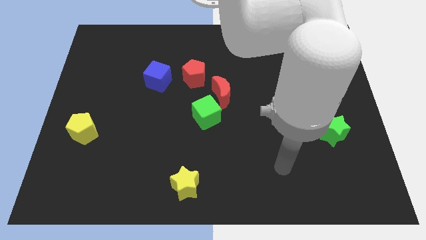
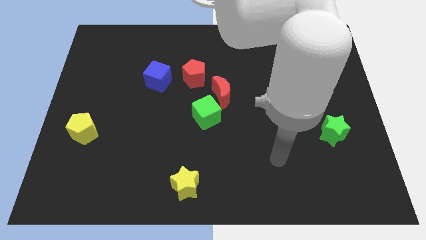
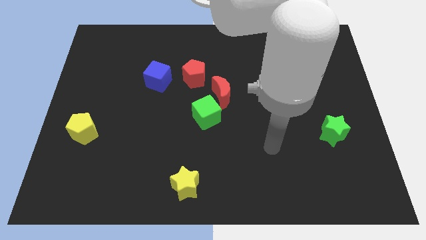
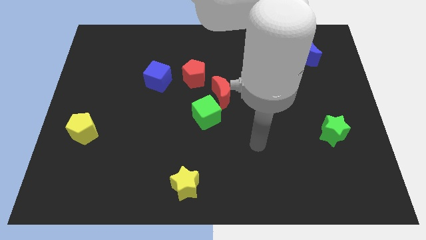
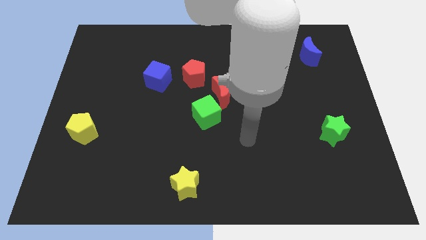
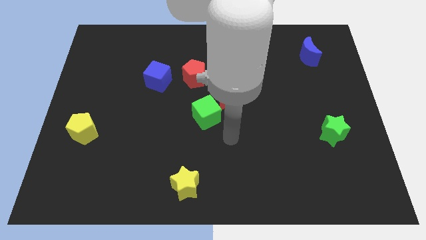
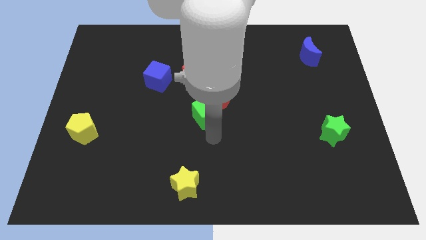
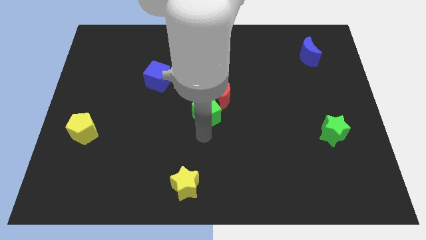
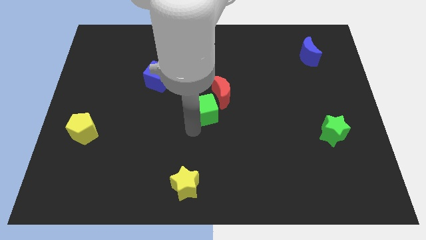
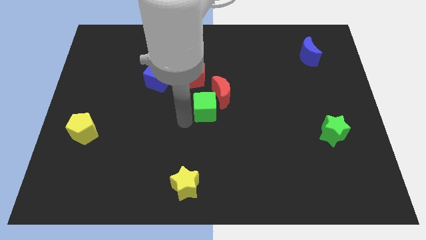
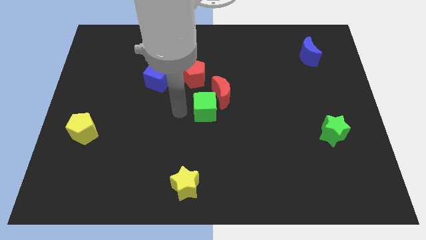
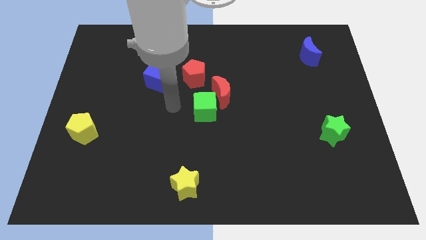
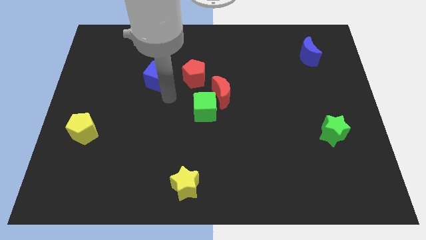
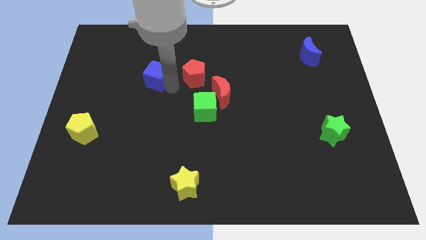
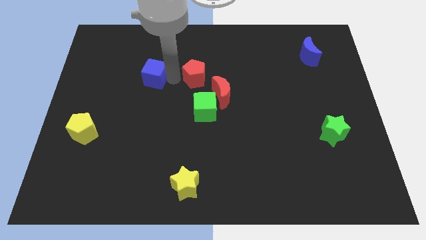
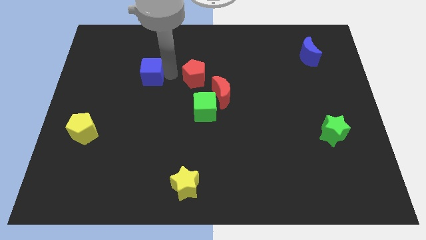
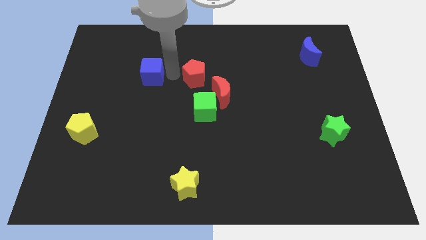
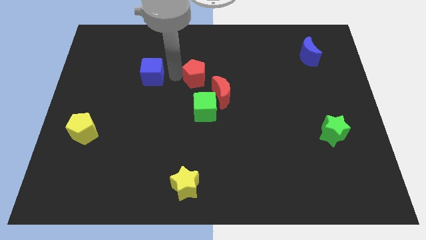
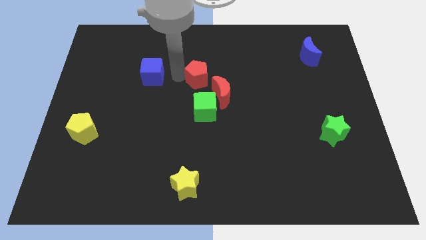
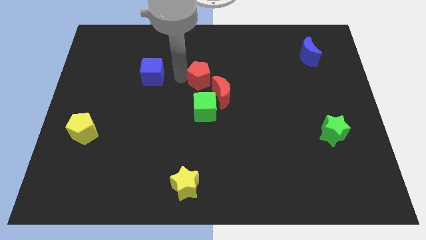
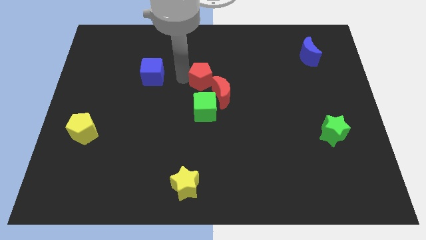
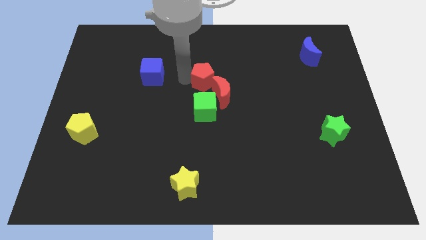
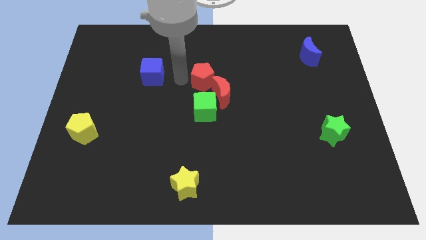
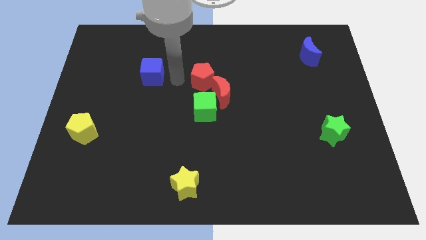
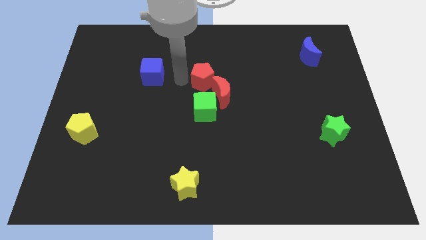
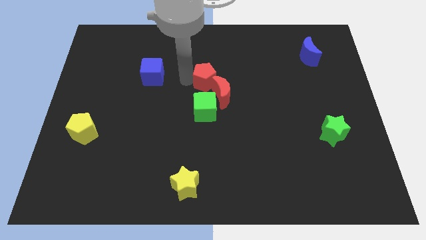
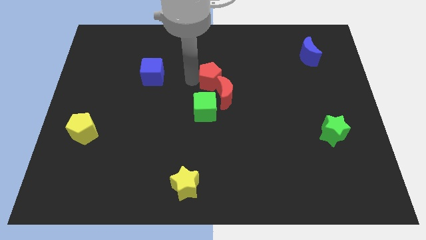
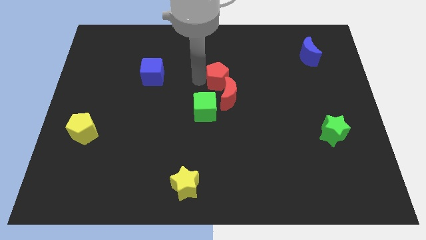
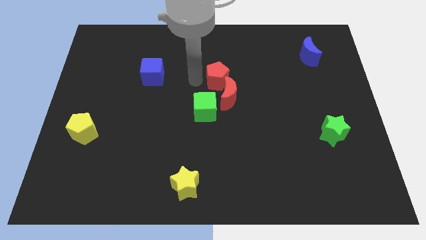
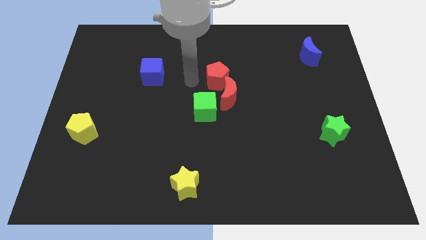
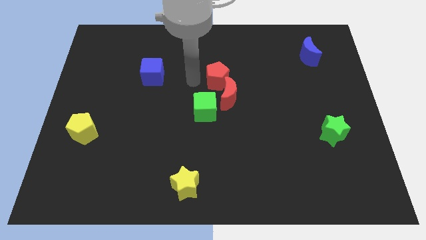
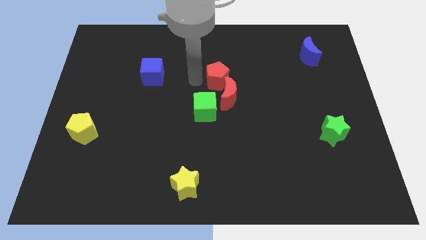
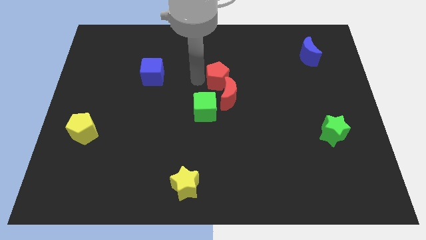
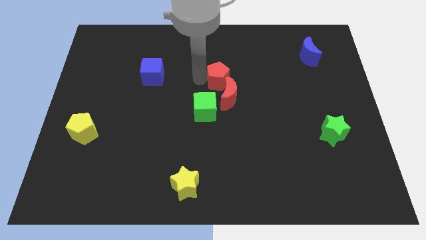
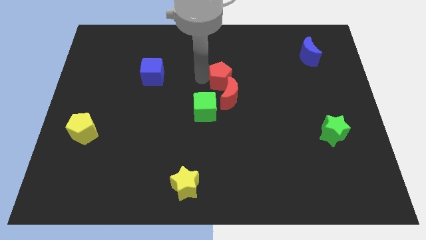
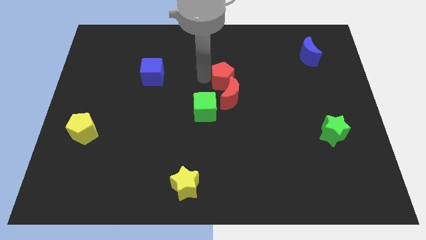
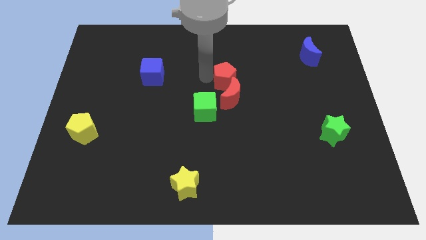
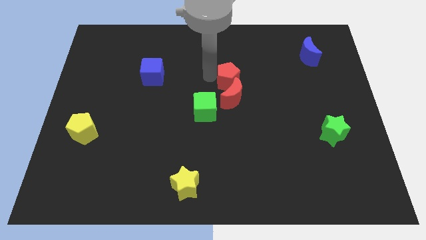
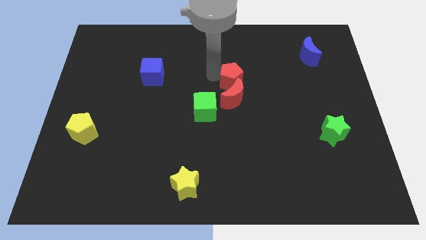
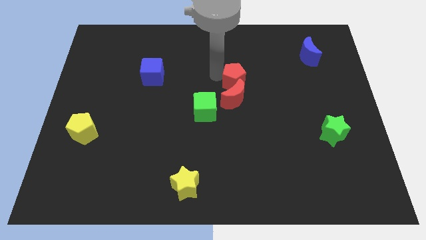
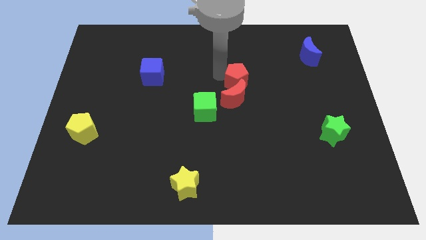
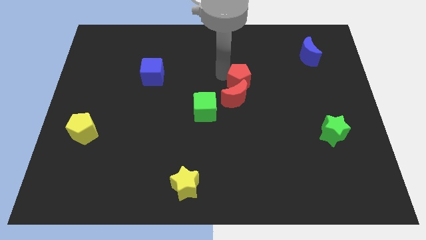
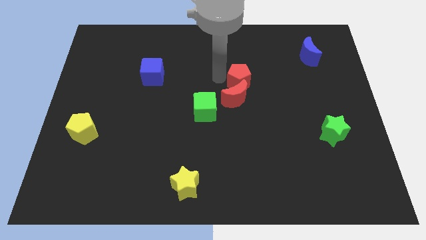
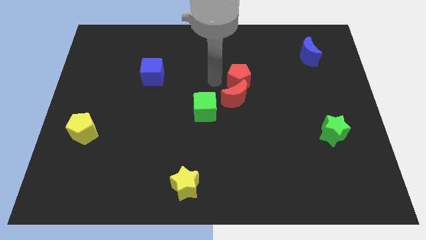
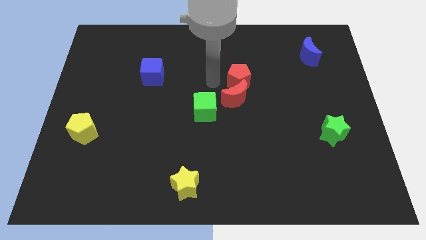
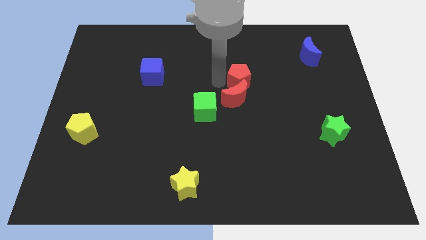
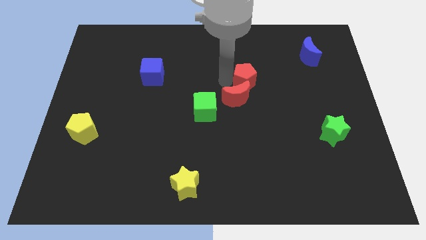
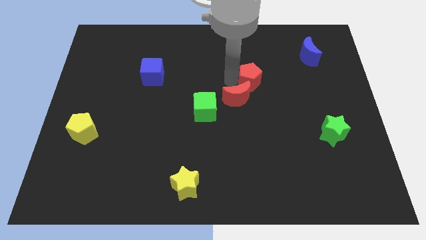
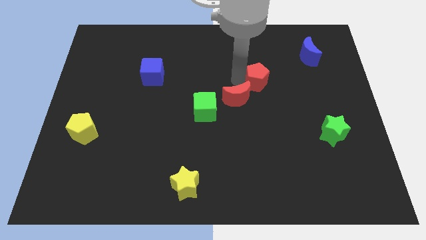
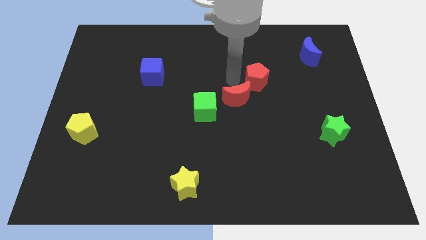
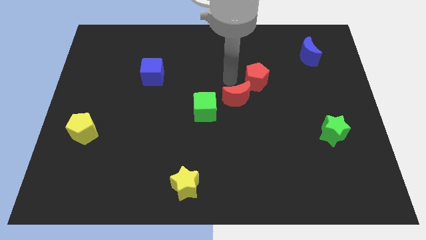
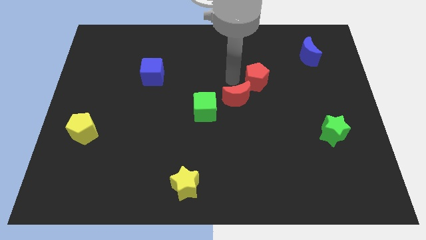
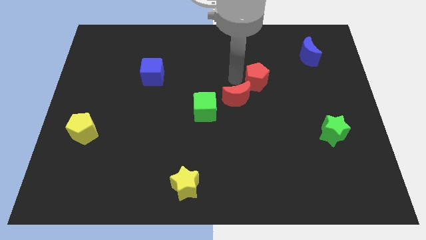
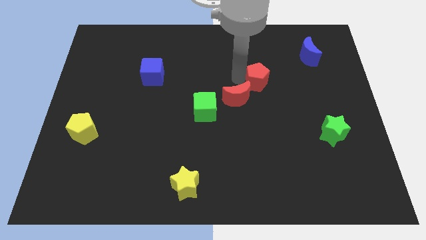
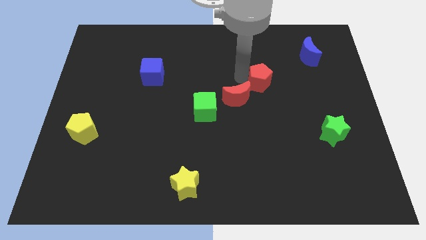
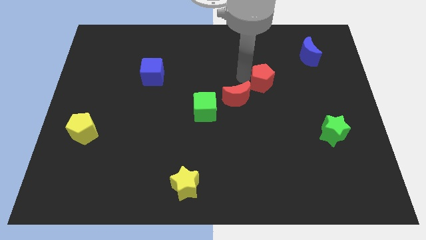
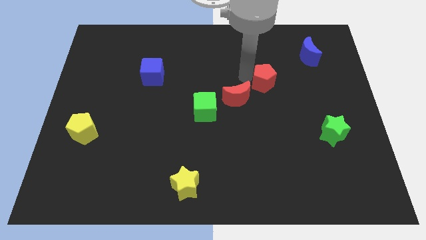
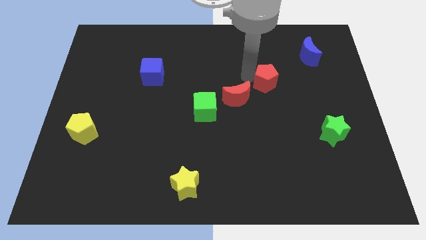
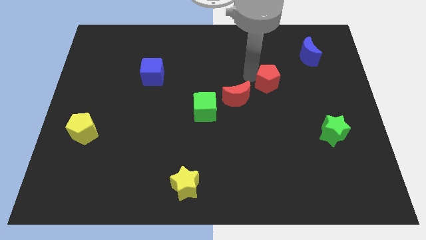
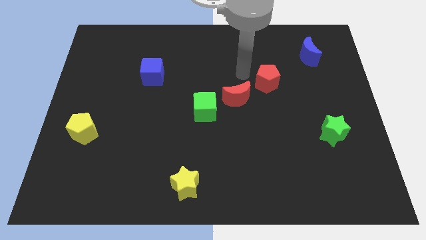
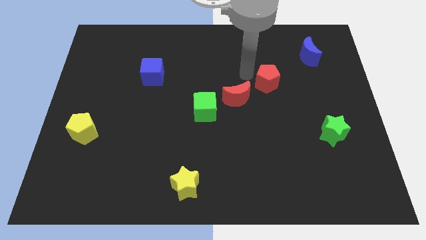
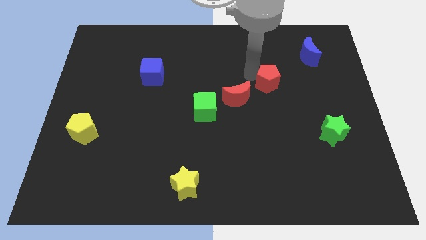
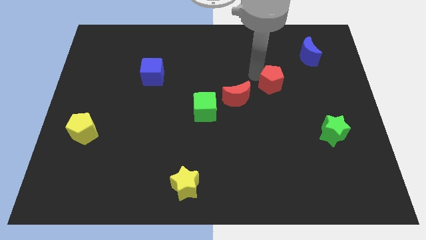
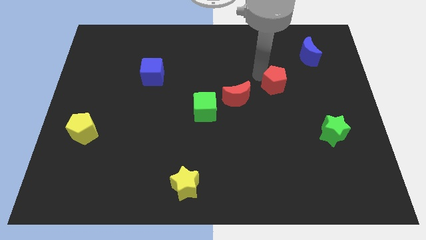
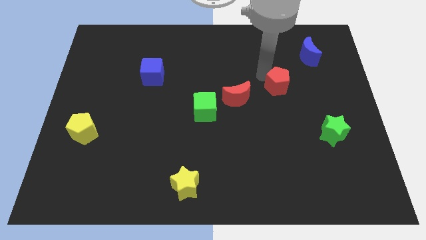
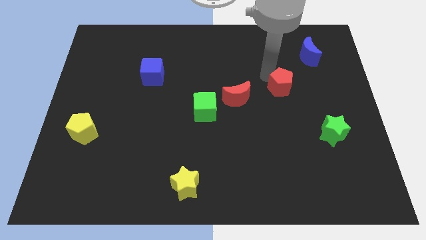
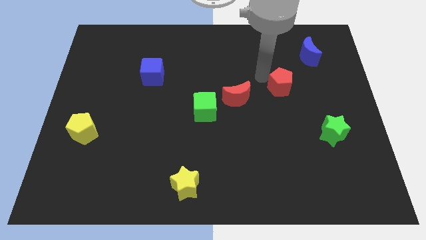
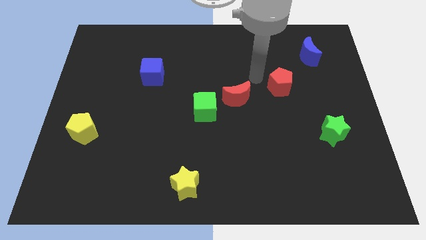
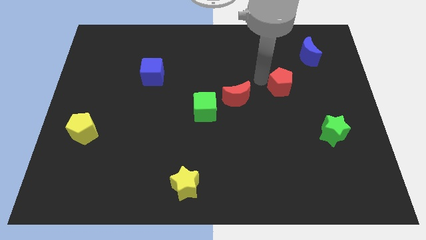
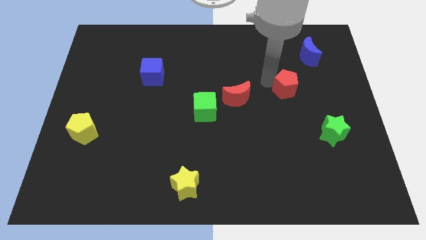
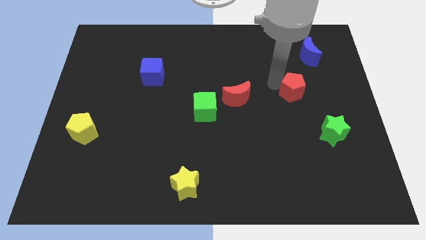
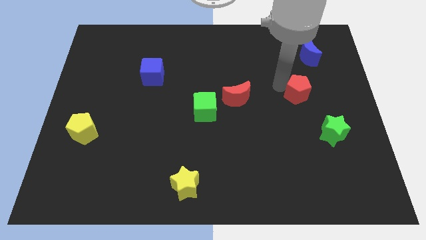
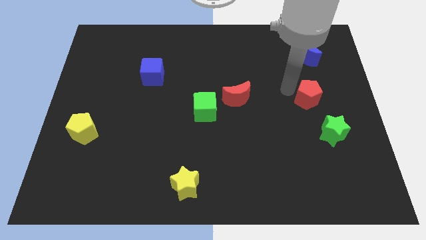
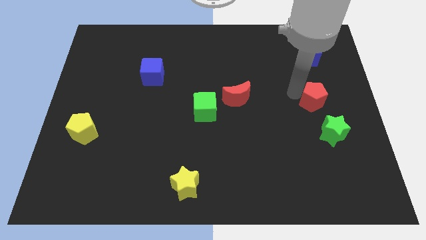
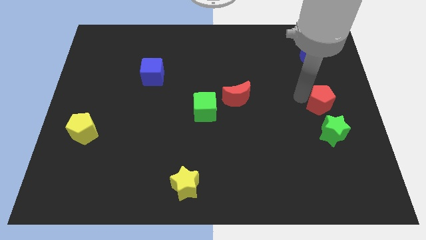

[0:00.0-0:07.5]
move the red pentagon to the right side
